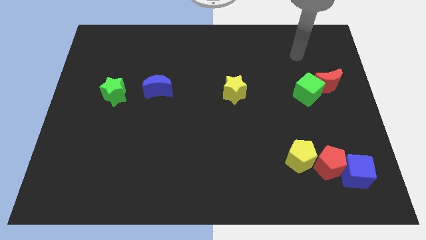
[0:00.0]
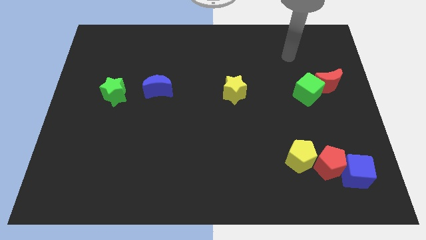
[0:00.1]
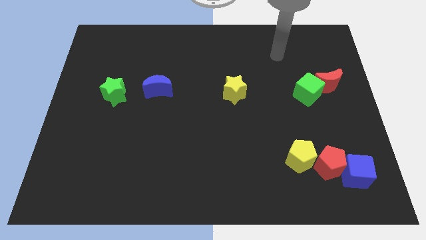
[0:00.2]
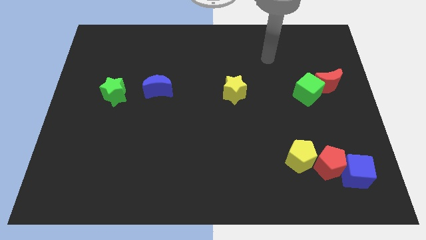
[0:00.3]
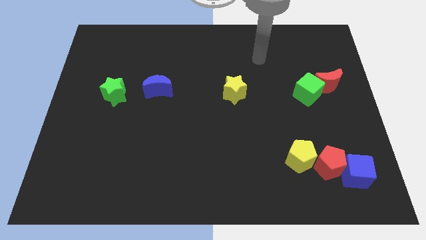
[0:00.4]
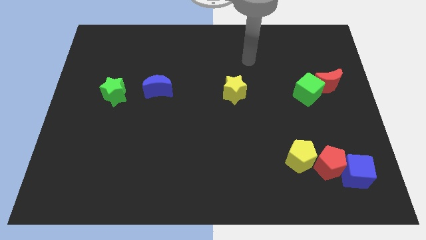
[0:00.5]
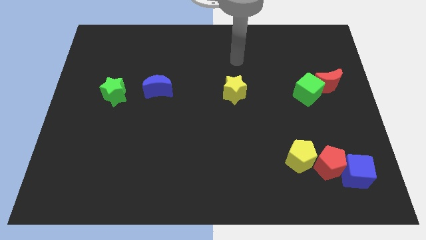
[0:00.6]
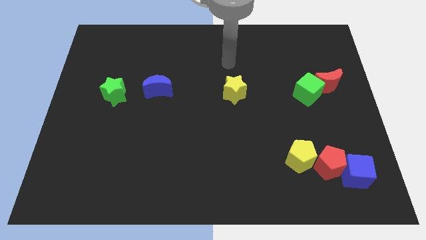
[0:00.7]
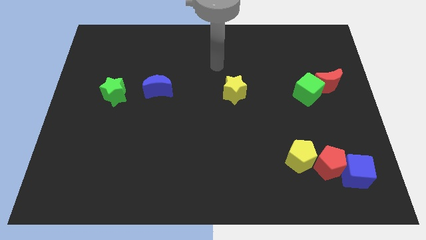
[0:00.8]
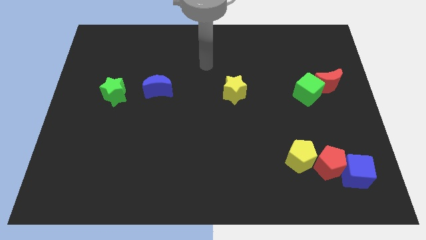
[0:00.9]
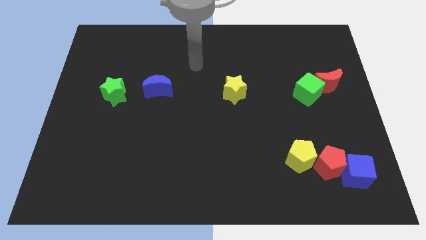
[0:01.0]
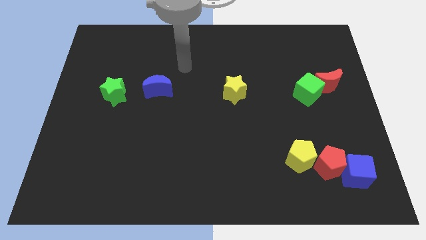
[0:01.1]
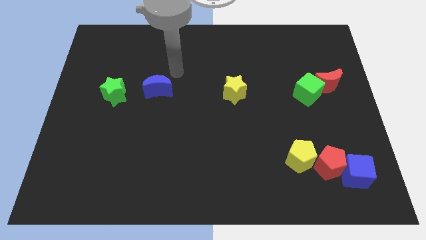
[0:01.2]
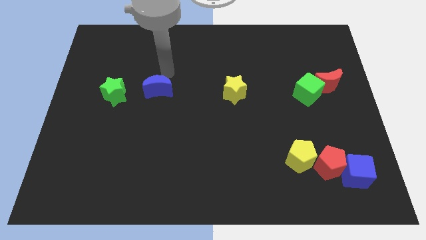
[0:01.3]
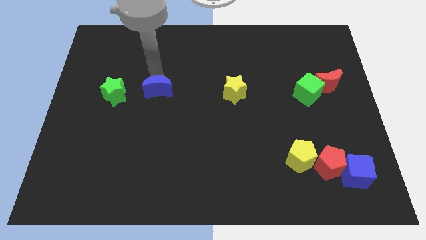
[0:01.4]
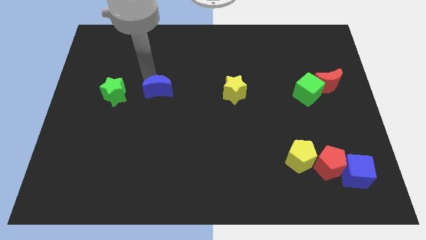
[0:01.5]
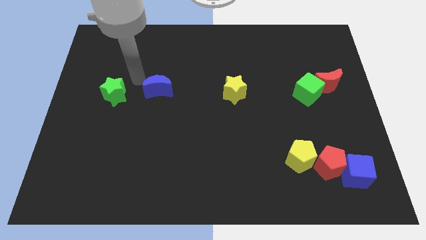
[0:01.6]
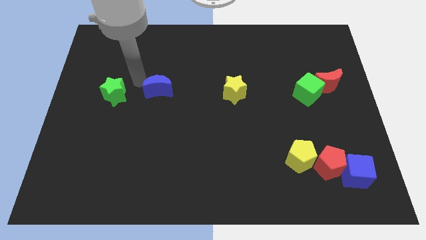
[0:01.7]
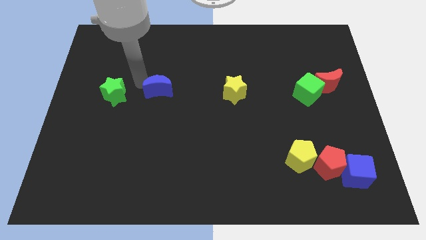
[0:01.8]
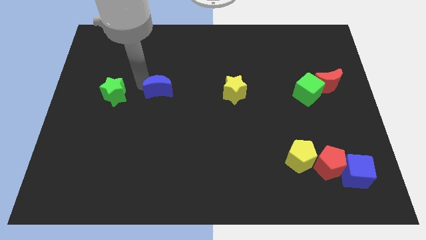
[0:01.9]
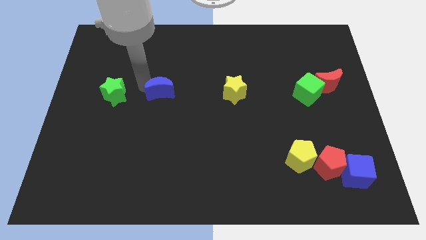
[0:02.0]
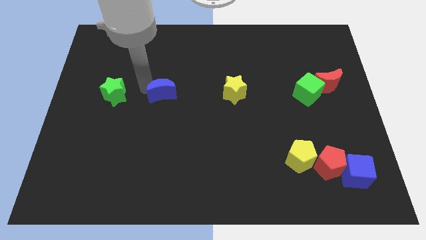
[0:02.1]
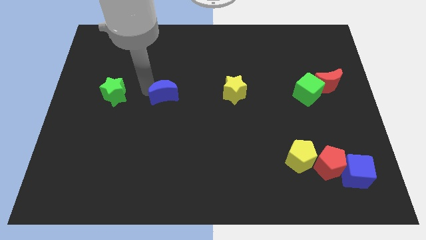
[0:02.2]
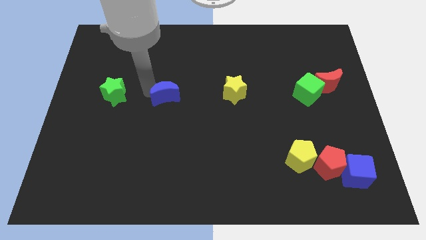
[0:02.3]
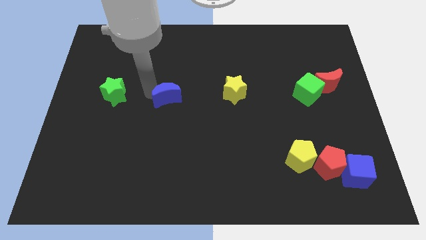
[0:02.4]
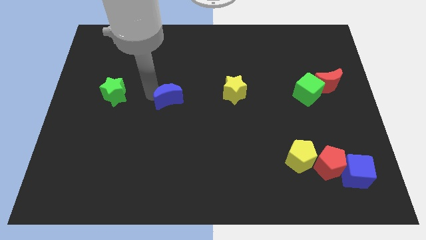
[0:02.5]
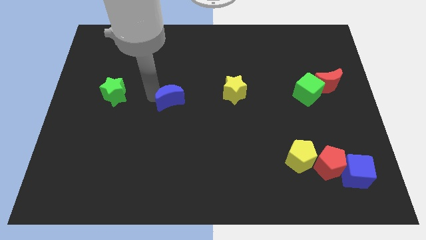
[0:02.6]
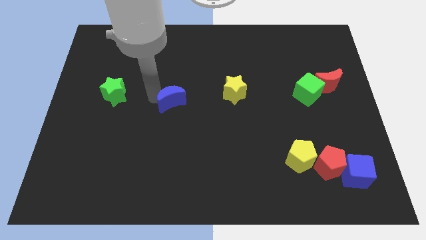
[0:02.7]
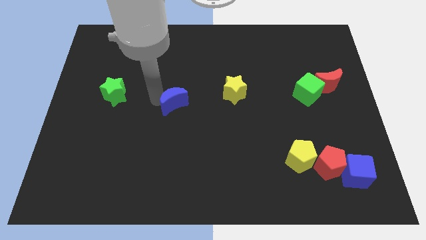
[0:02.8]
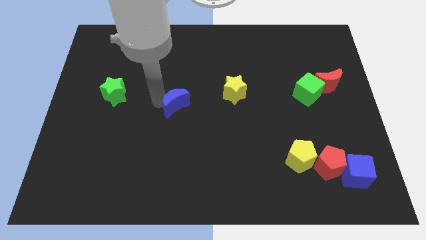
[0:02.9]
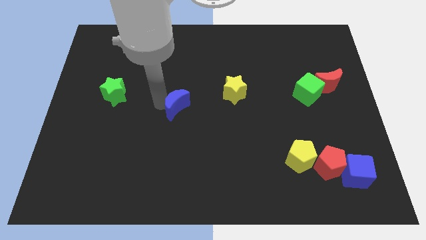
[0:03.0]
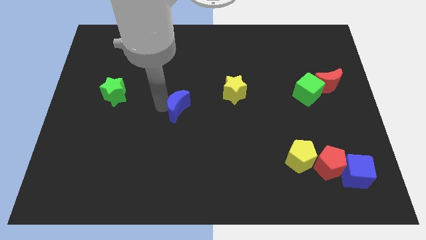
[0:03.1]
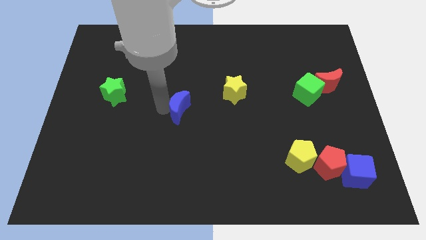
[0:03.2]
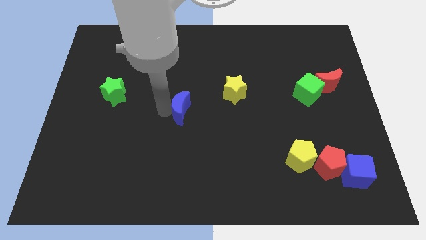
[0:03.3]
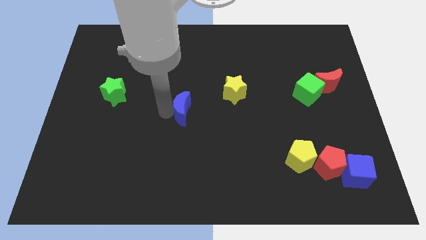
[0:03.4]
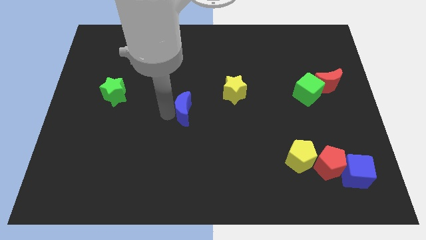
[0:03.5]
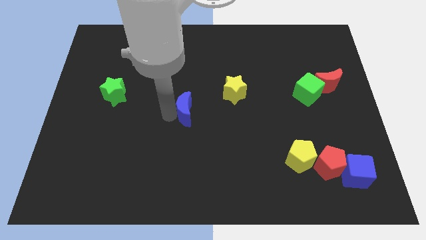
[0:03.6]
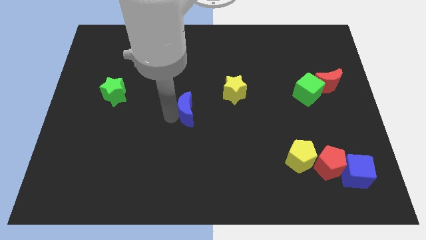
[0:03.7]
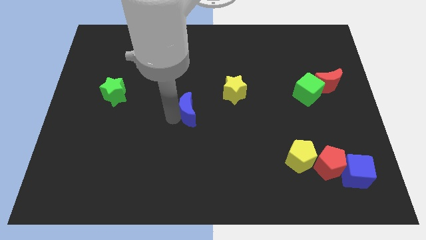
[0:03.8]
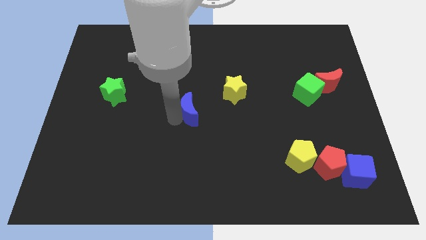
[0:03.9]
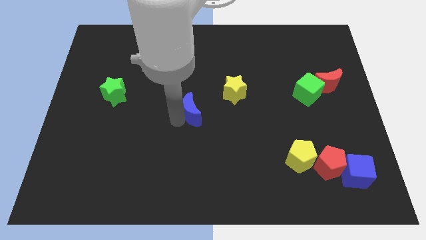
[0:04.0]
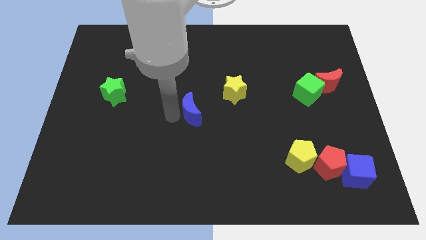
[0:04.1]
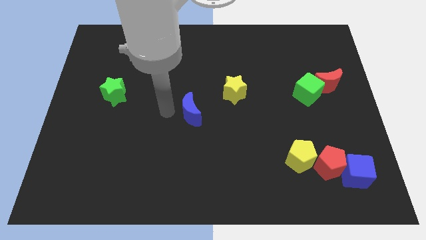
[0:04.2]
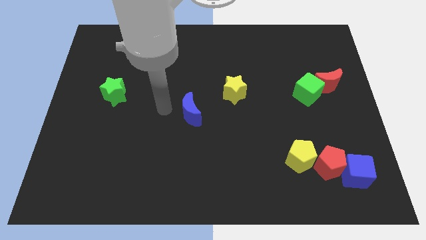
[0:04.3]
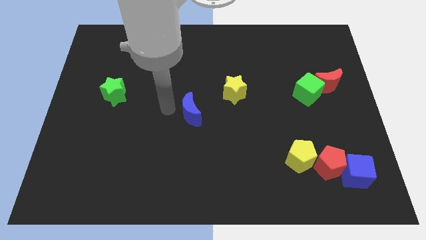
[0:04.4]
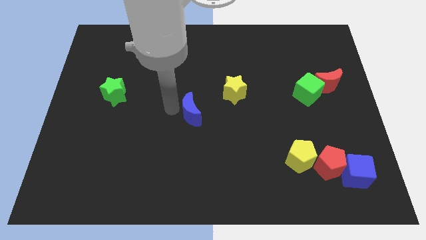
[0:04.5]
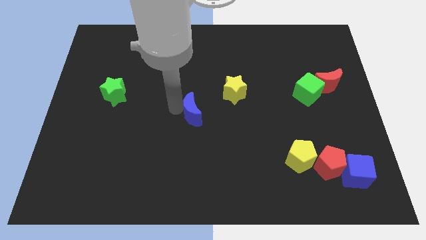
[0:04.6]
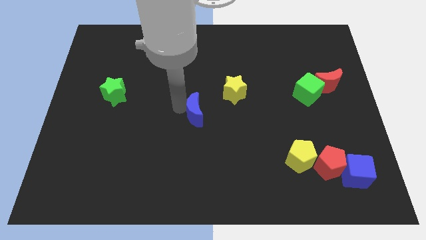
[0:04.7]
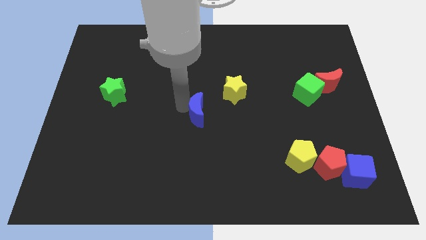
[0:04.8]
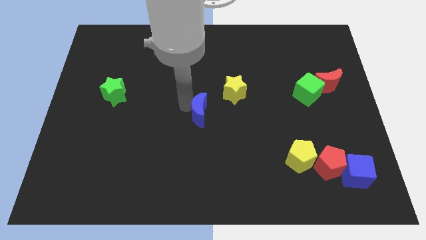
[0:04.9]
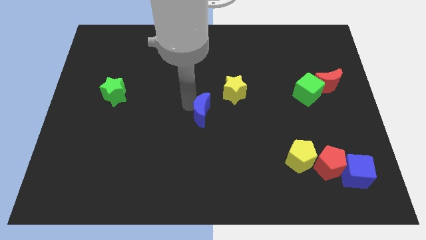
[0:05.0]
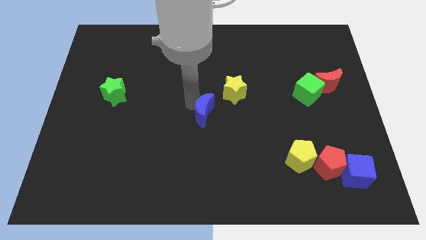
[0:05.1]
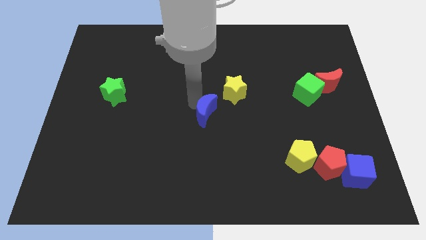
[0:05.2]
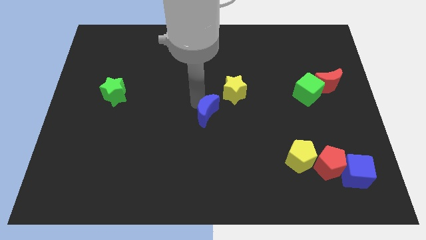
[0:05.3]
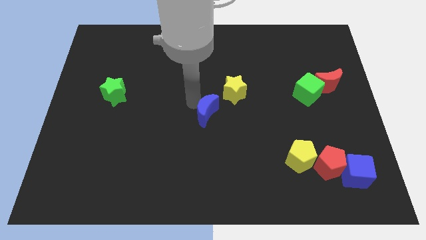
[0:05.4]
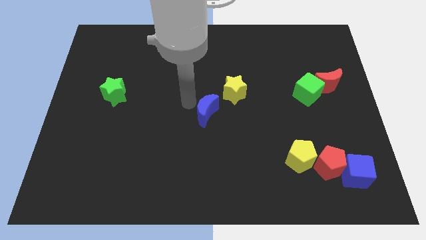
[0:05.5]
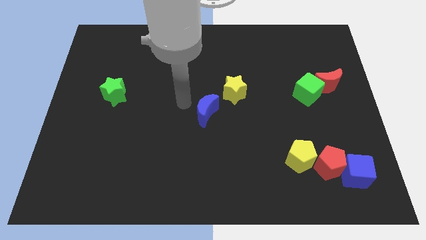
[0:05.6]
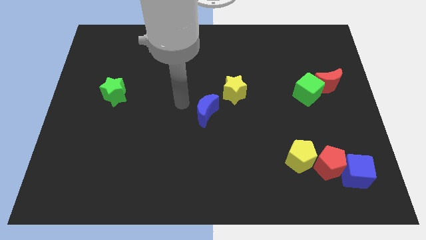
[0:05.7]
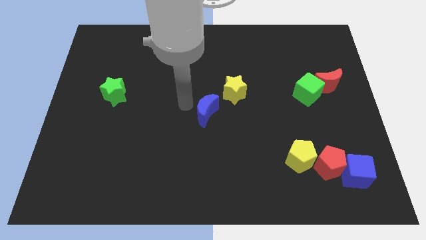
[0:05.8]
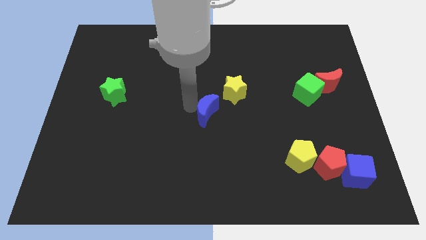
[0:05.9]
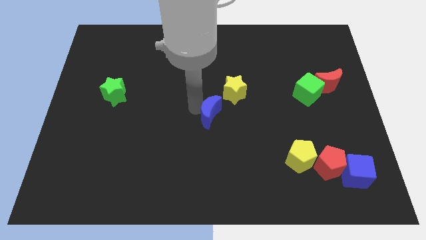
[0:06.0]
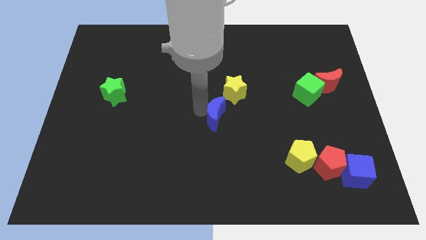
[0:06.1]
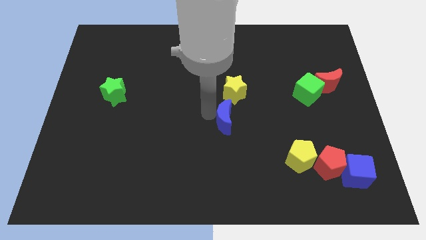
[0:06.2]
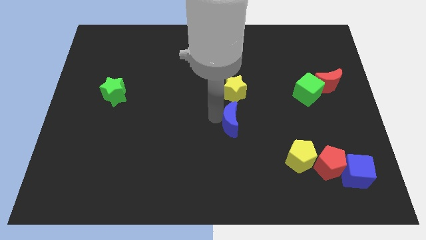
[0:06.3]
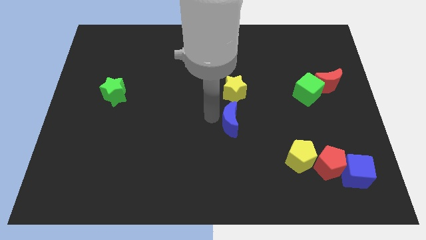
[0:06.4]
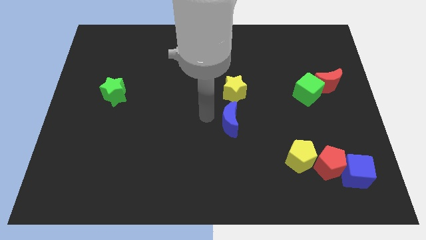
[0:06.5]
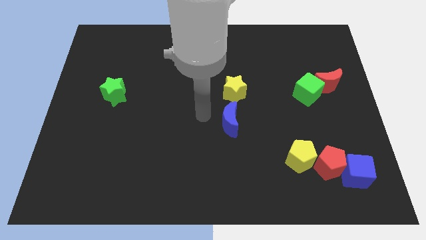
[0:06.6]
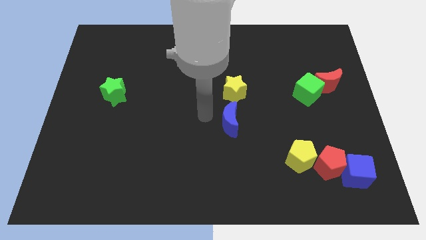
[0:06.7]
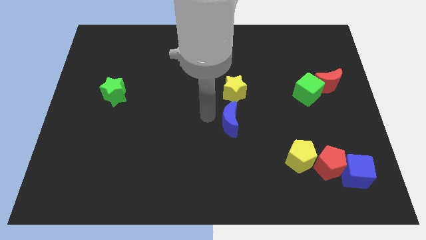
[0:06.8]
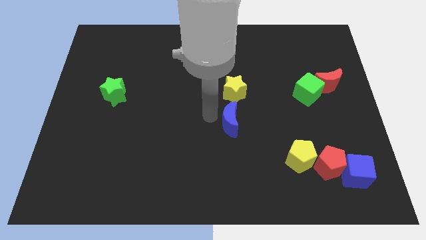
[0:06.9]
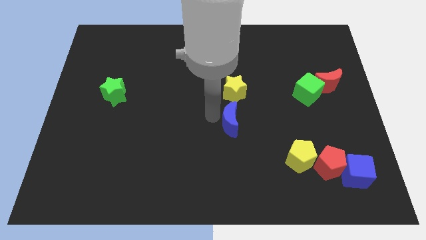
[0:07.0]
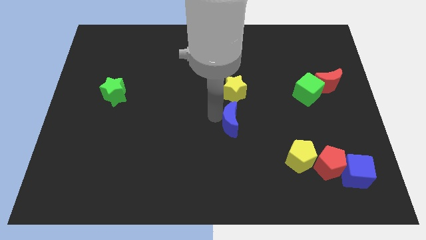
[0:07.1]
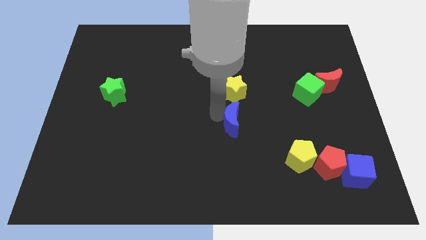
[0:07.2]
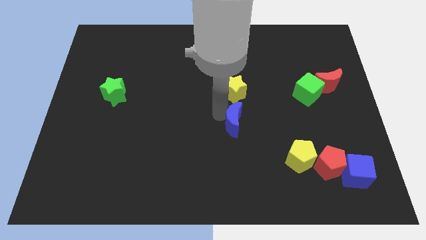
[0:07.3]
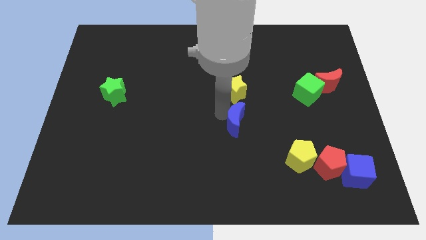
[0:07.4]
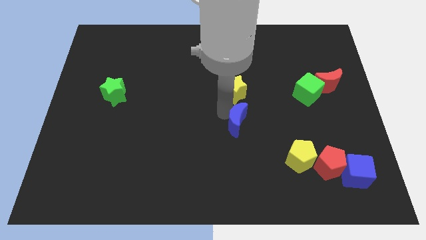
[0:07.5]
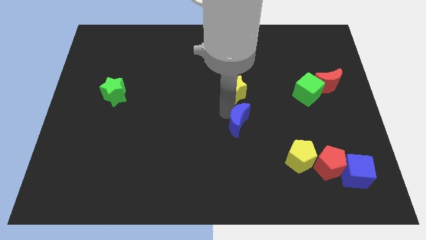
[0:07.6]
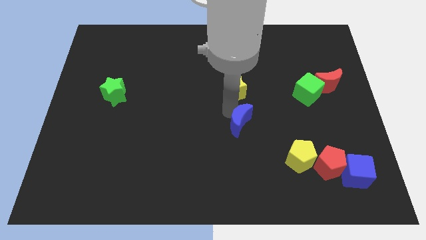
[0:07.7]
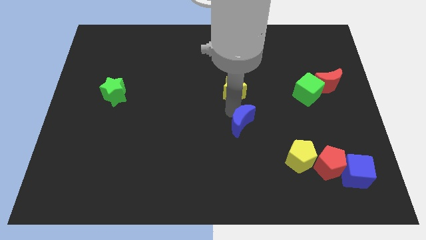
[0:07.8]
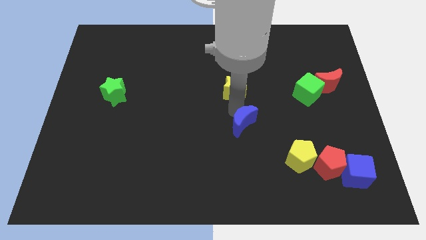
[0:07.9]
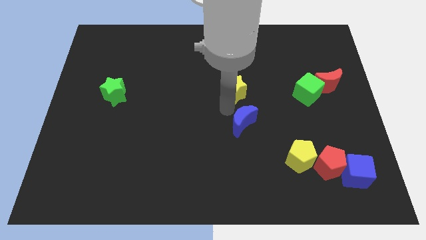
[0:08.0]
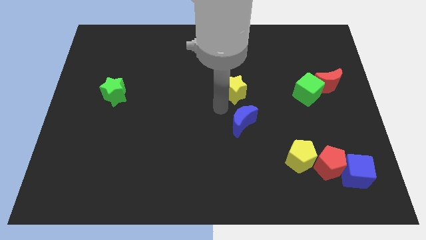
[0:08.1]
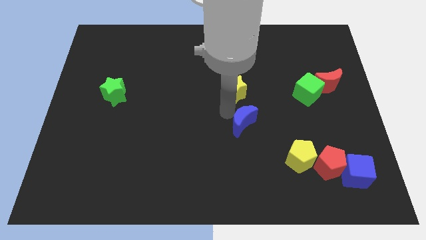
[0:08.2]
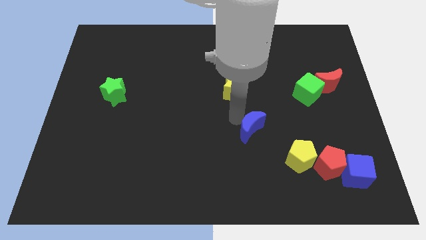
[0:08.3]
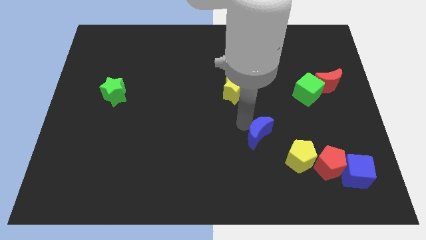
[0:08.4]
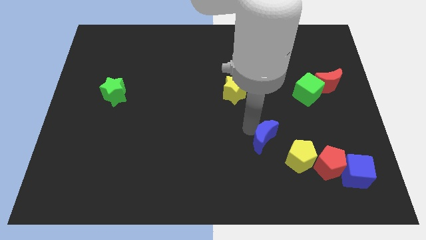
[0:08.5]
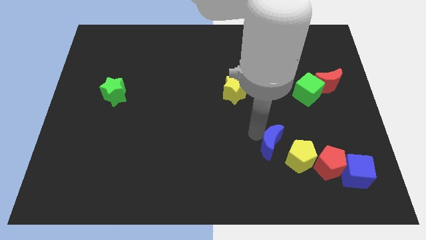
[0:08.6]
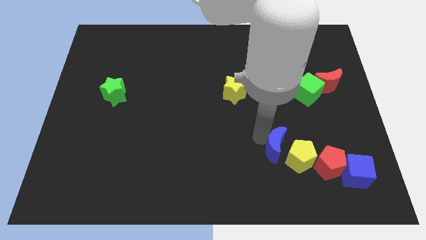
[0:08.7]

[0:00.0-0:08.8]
push the blue moon close to the yellow pentagon
